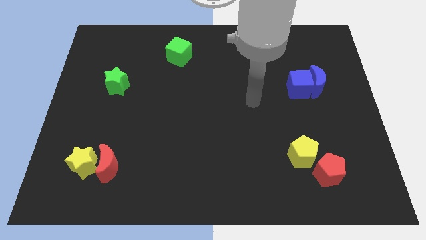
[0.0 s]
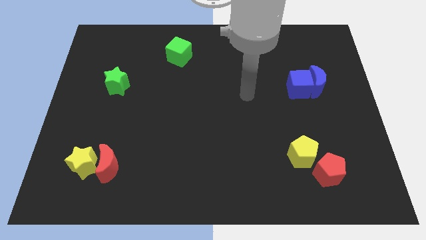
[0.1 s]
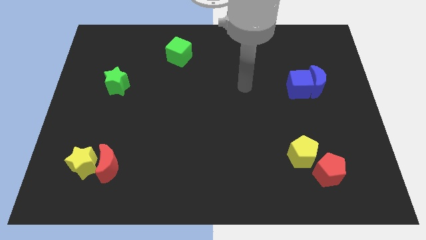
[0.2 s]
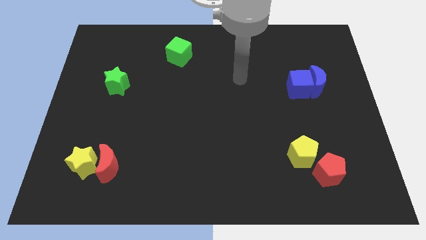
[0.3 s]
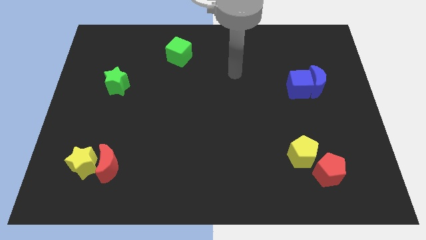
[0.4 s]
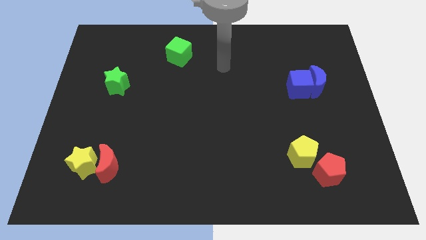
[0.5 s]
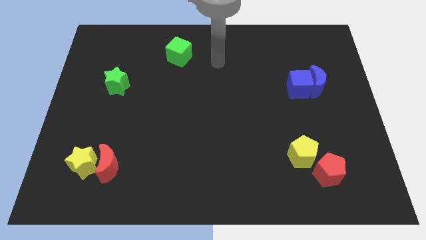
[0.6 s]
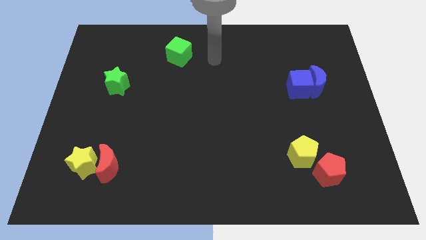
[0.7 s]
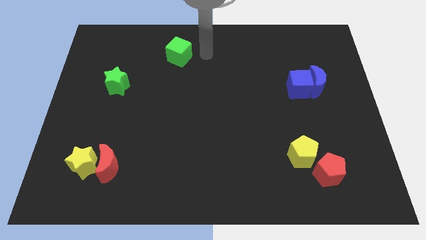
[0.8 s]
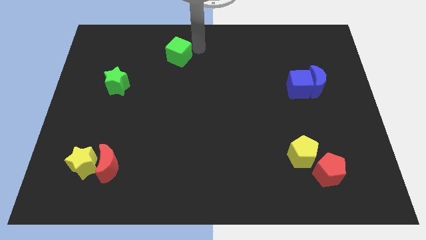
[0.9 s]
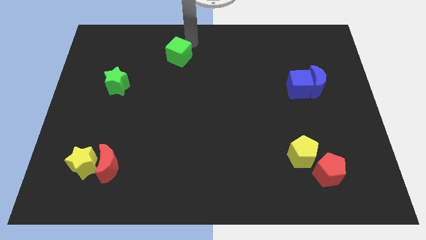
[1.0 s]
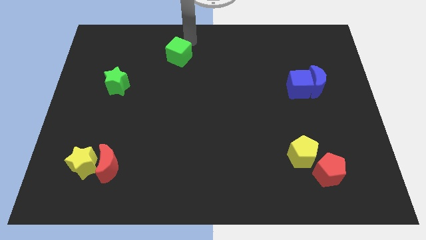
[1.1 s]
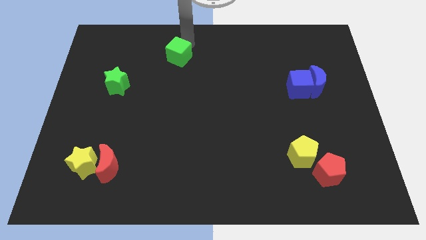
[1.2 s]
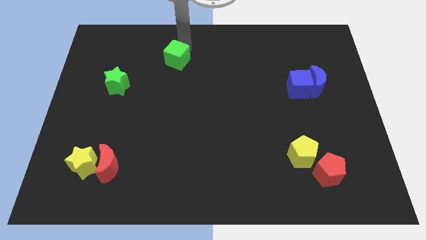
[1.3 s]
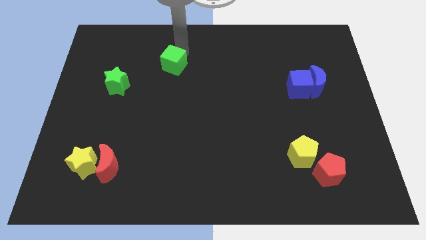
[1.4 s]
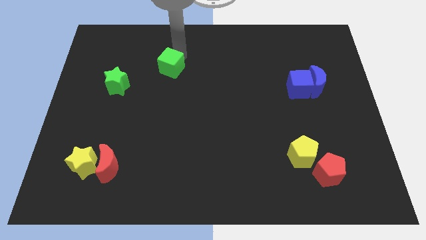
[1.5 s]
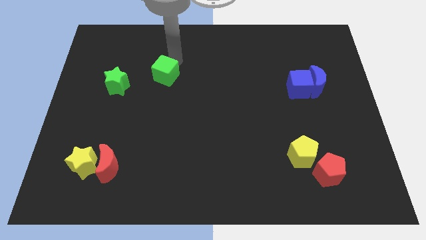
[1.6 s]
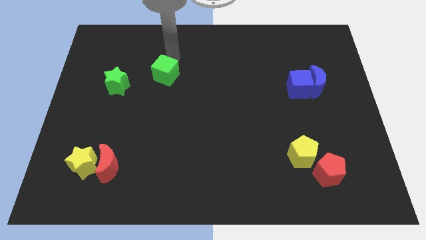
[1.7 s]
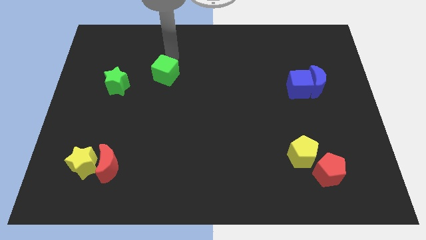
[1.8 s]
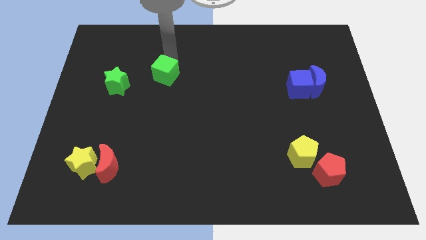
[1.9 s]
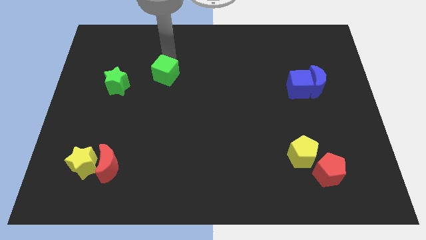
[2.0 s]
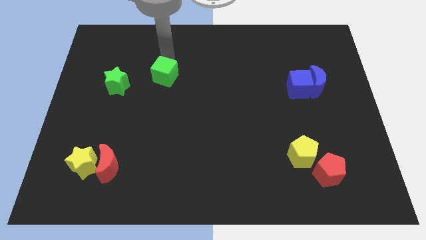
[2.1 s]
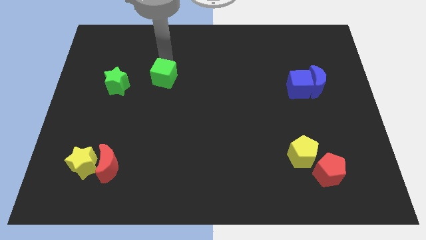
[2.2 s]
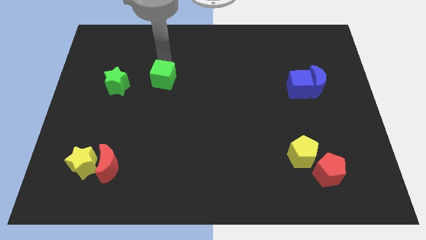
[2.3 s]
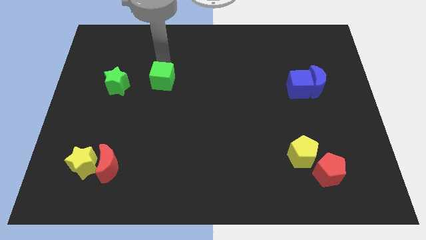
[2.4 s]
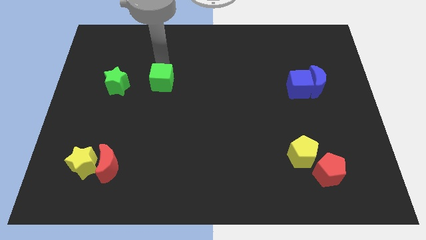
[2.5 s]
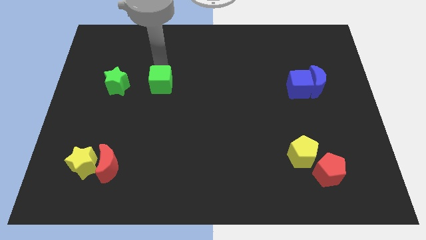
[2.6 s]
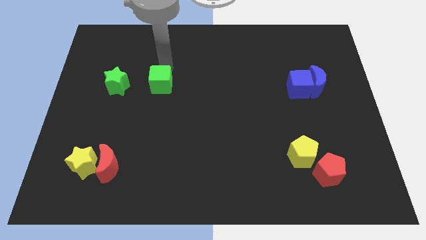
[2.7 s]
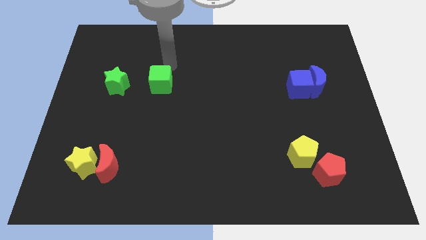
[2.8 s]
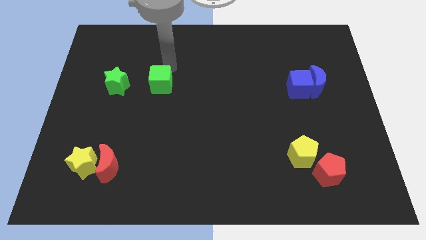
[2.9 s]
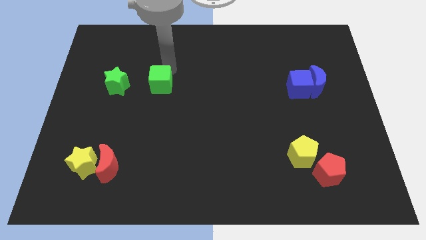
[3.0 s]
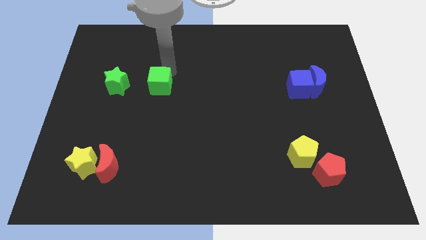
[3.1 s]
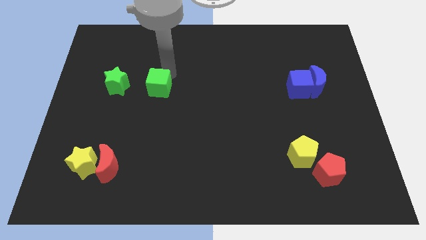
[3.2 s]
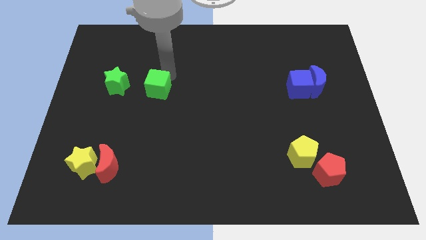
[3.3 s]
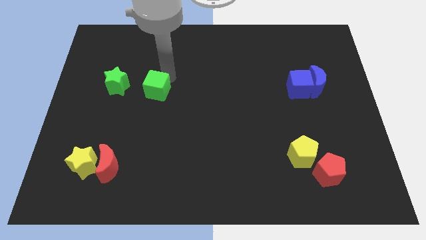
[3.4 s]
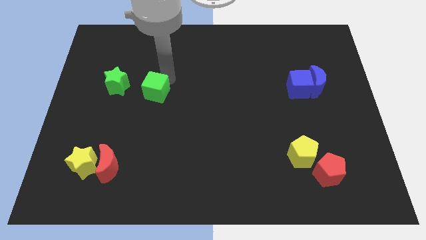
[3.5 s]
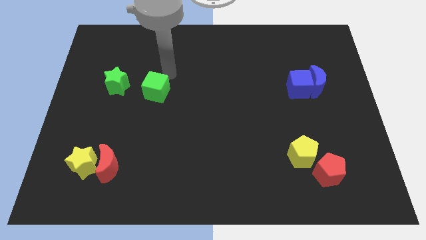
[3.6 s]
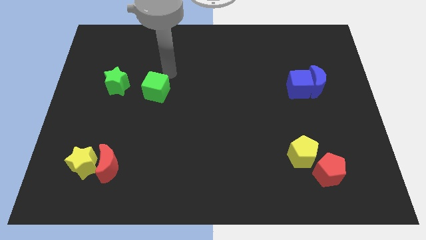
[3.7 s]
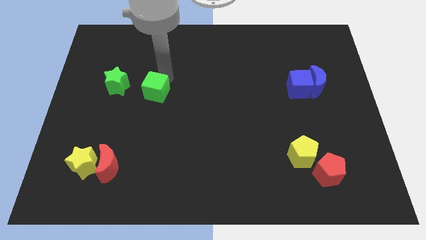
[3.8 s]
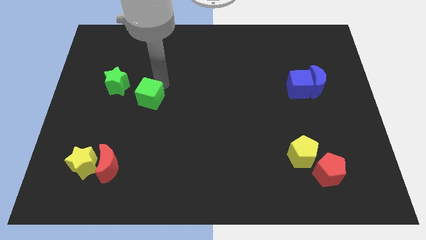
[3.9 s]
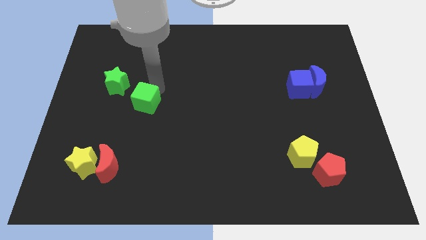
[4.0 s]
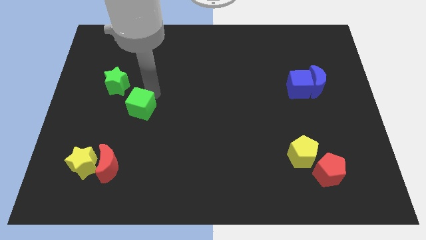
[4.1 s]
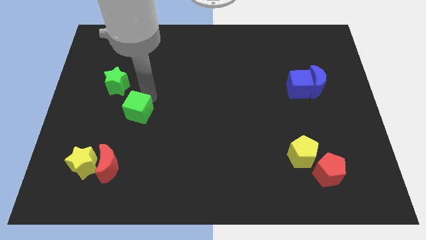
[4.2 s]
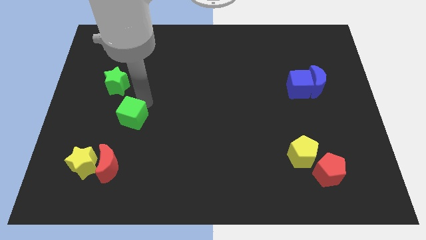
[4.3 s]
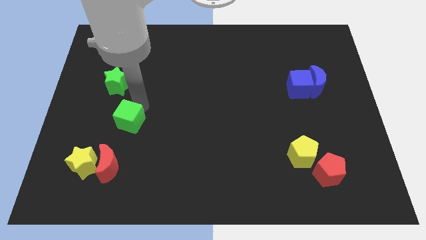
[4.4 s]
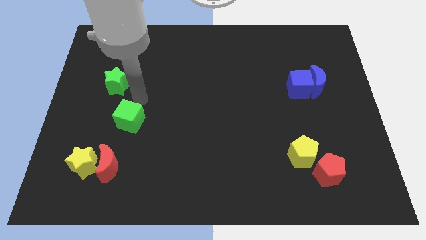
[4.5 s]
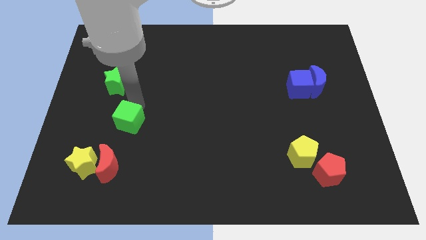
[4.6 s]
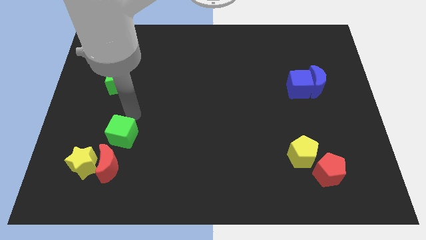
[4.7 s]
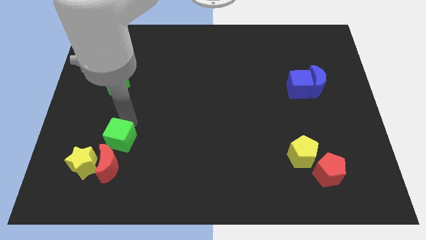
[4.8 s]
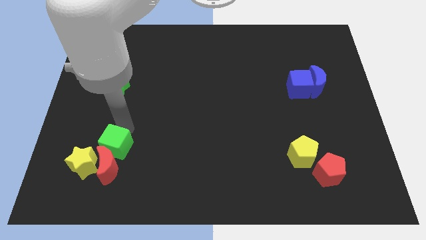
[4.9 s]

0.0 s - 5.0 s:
put the green cube next to the red moon

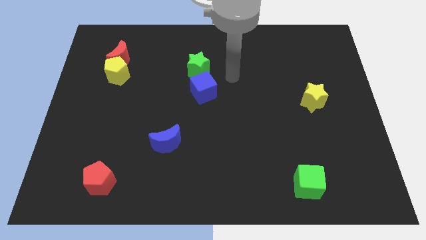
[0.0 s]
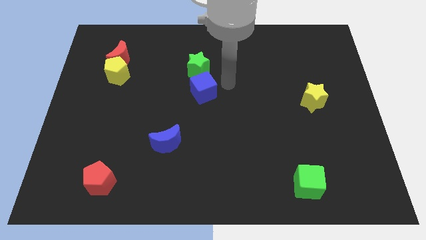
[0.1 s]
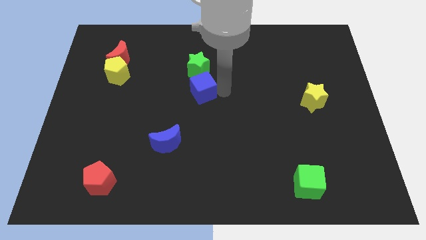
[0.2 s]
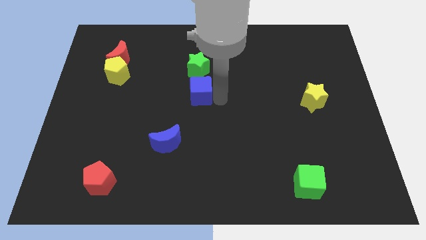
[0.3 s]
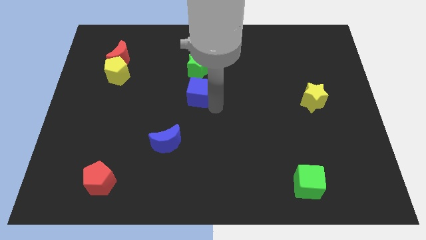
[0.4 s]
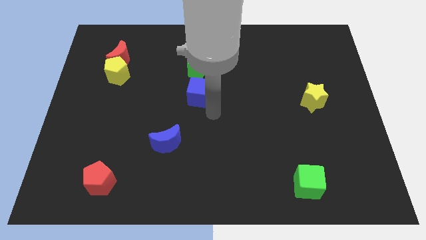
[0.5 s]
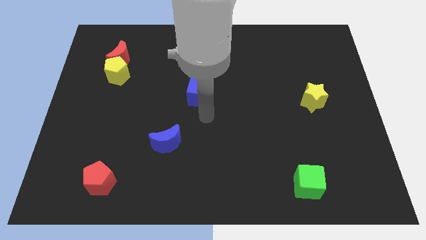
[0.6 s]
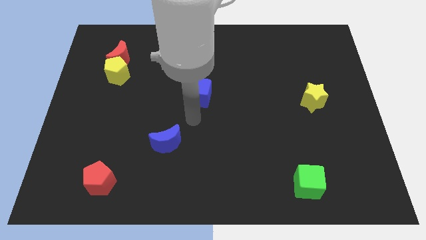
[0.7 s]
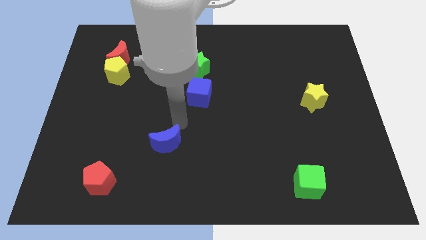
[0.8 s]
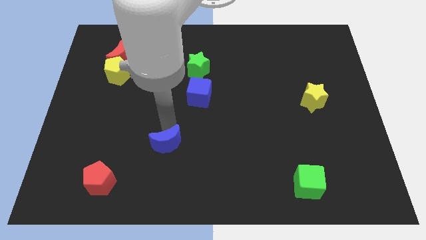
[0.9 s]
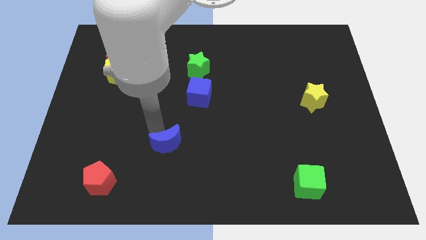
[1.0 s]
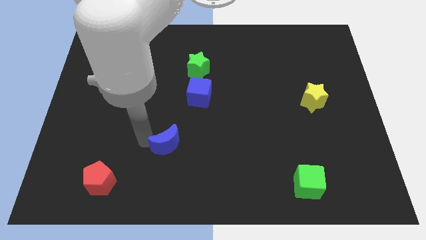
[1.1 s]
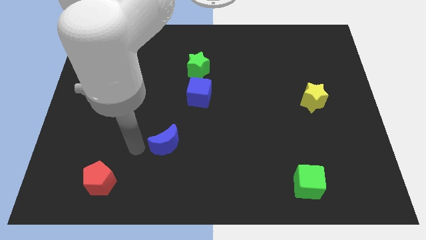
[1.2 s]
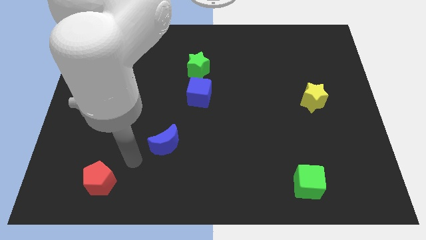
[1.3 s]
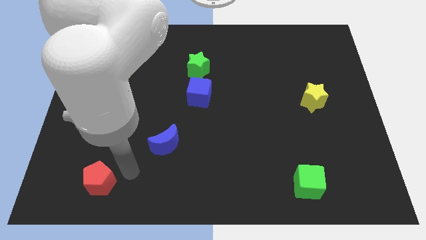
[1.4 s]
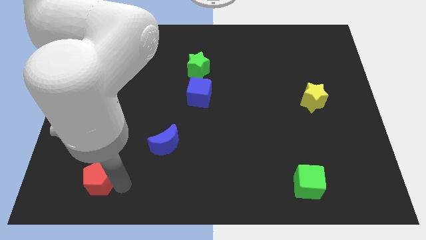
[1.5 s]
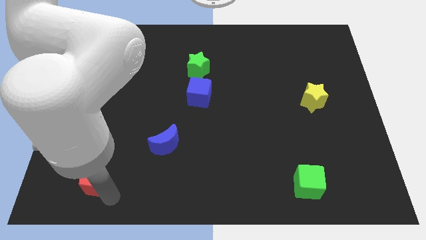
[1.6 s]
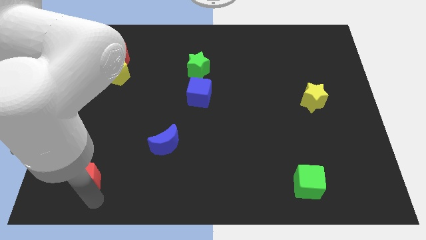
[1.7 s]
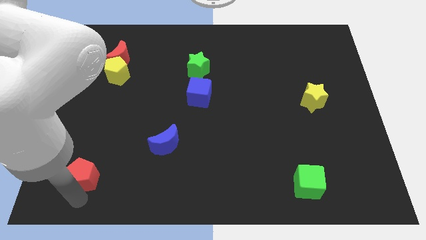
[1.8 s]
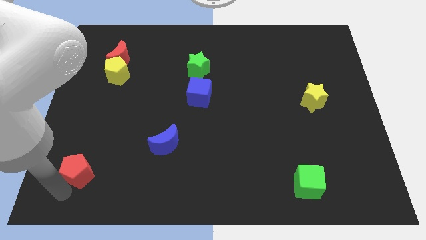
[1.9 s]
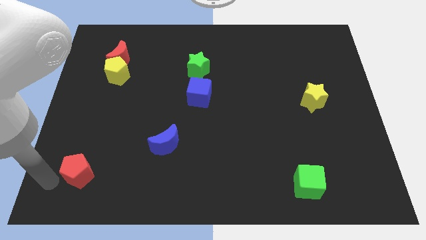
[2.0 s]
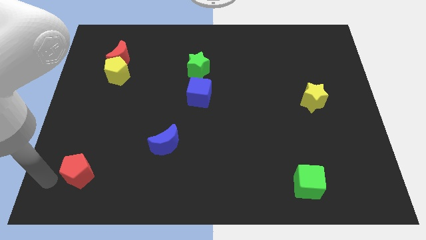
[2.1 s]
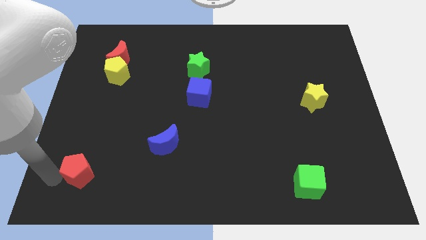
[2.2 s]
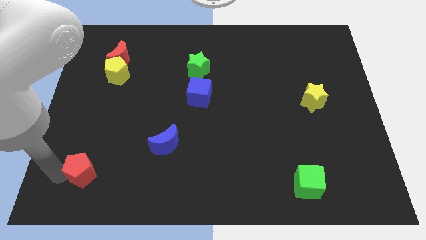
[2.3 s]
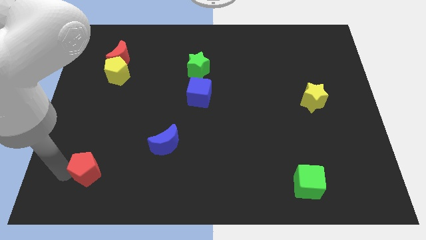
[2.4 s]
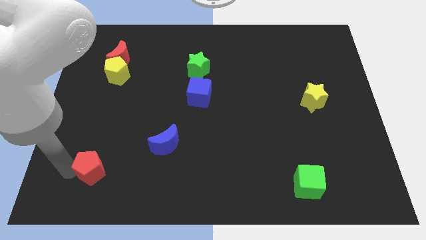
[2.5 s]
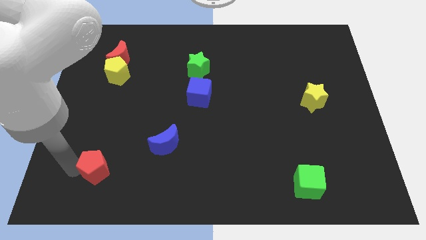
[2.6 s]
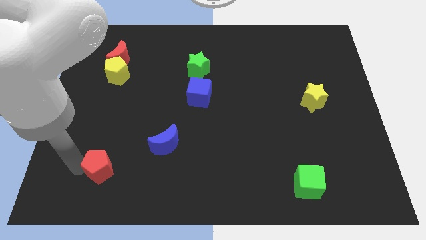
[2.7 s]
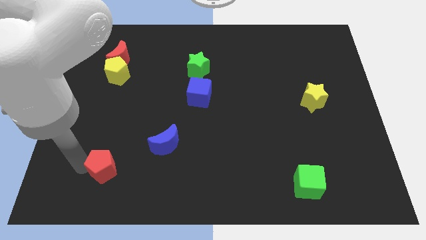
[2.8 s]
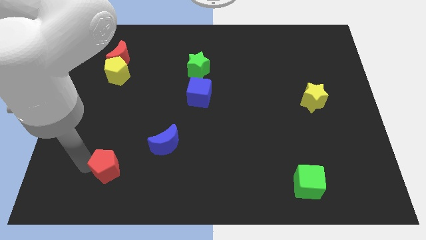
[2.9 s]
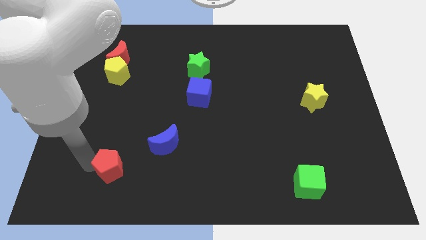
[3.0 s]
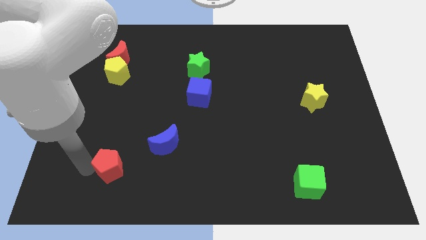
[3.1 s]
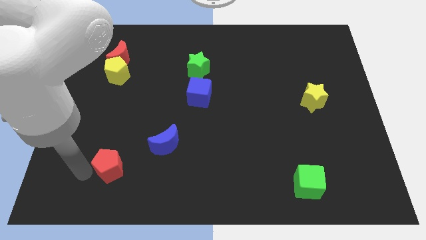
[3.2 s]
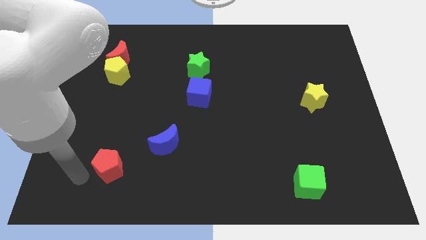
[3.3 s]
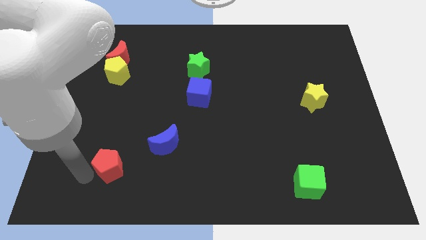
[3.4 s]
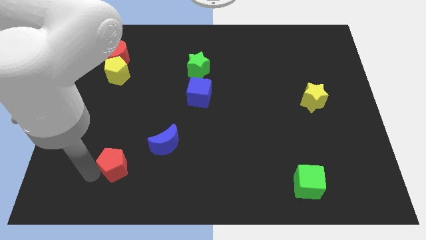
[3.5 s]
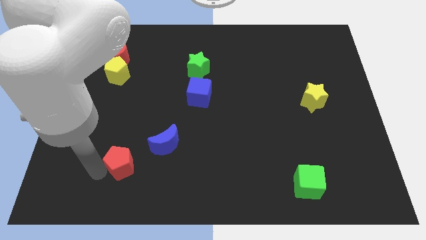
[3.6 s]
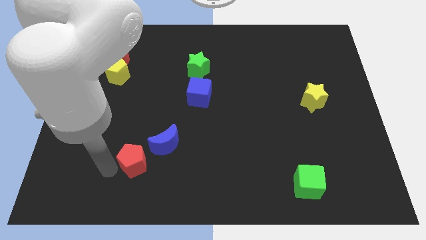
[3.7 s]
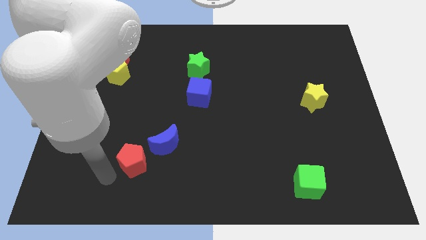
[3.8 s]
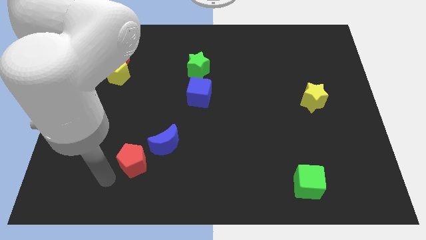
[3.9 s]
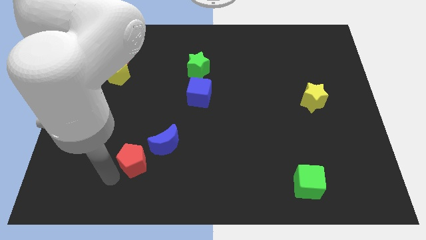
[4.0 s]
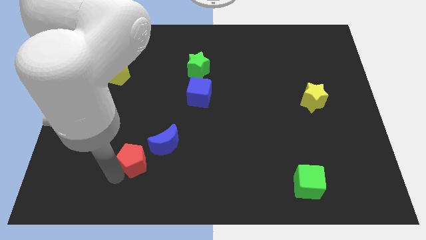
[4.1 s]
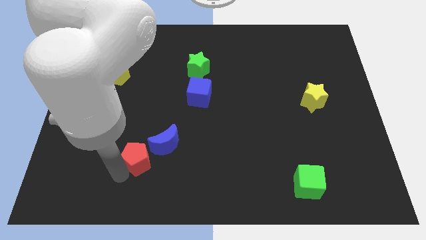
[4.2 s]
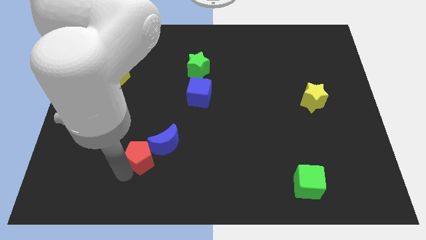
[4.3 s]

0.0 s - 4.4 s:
push the red pentagon close to the blue moon
